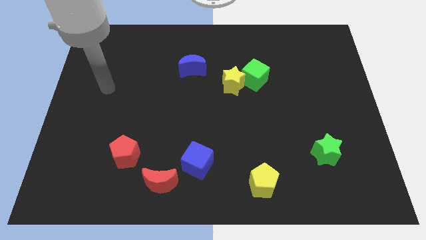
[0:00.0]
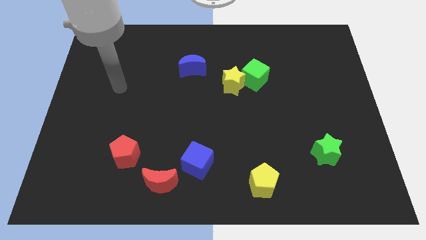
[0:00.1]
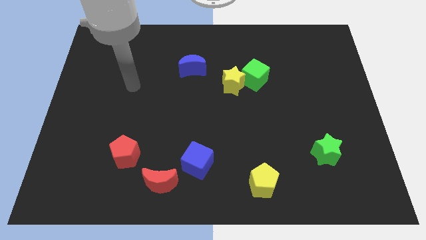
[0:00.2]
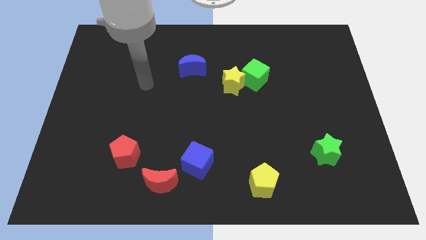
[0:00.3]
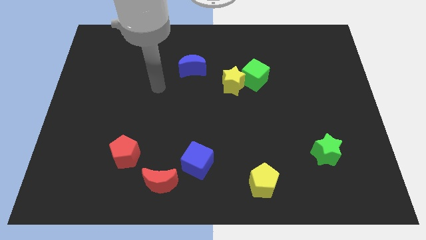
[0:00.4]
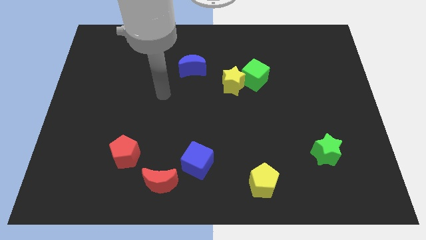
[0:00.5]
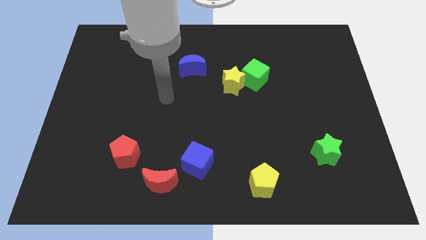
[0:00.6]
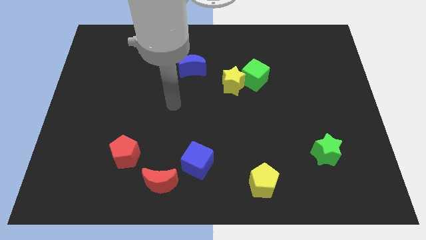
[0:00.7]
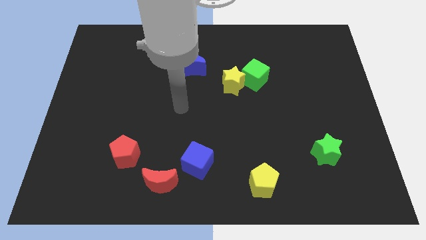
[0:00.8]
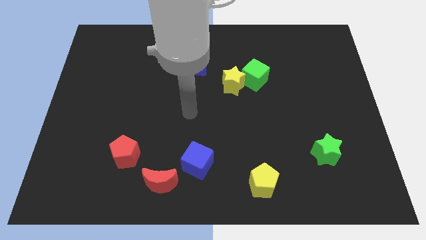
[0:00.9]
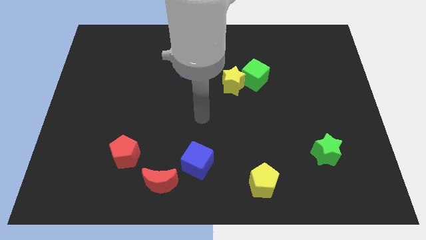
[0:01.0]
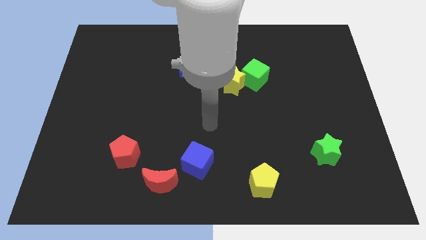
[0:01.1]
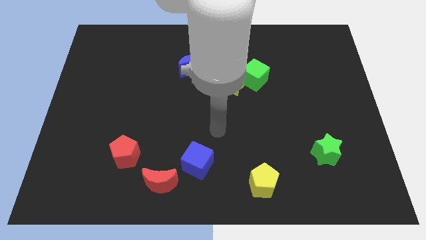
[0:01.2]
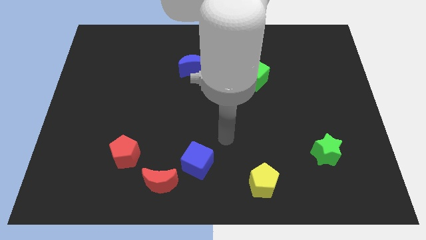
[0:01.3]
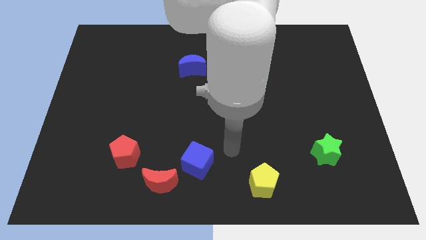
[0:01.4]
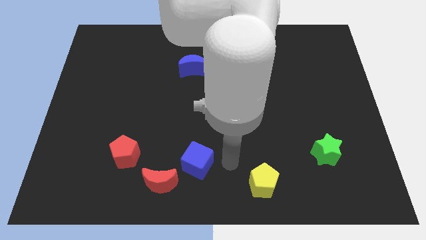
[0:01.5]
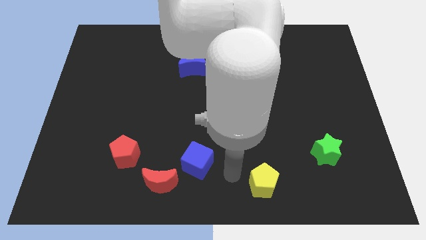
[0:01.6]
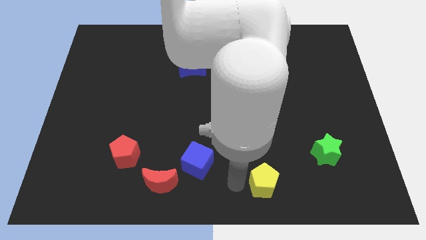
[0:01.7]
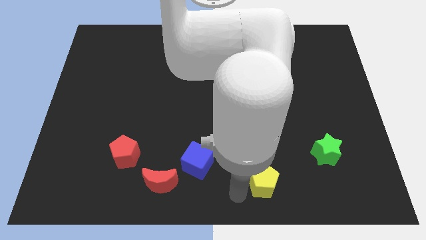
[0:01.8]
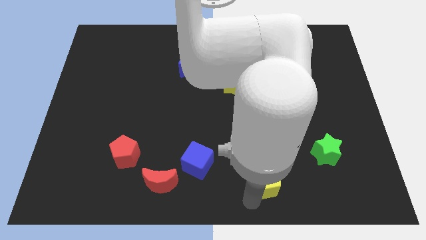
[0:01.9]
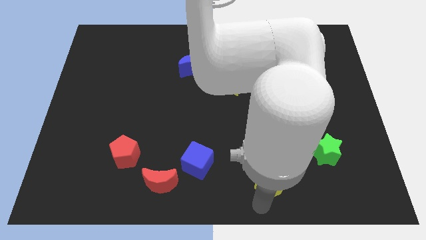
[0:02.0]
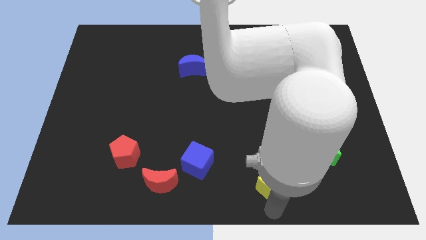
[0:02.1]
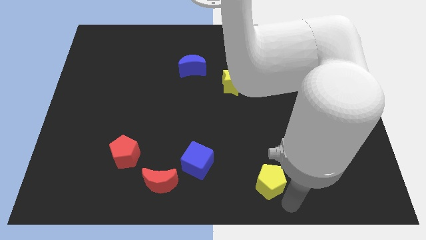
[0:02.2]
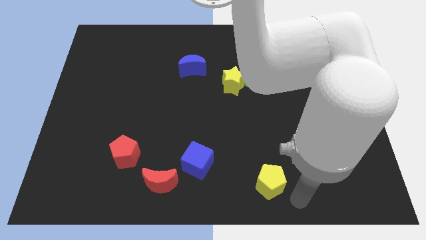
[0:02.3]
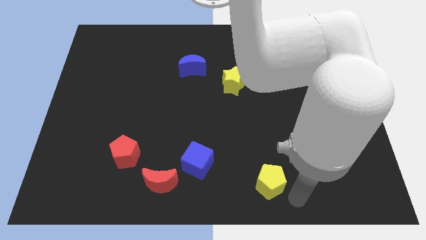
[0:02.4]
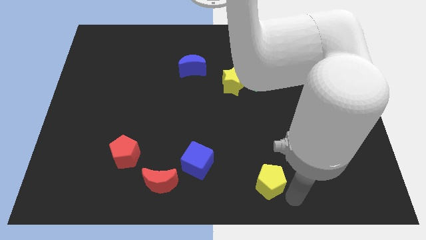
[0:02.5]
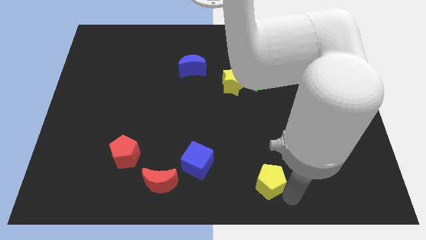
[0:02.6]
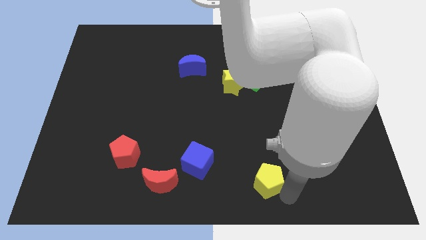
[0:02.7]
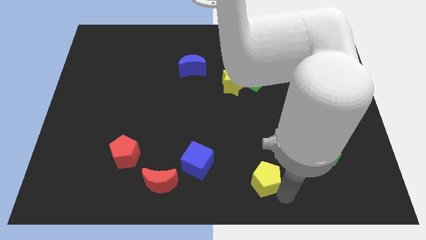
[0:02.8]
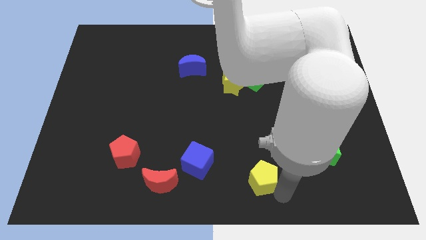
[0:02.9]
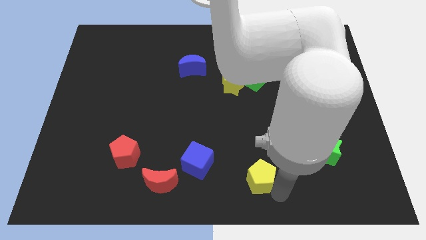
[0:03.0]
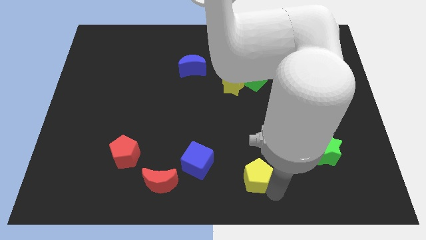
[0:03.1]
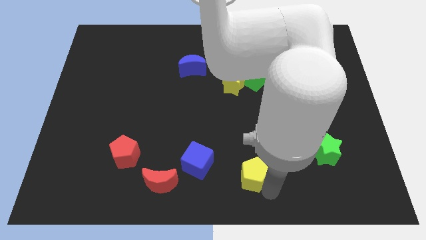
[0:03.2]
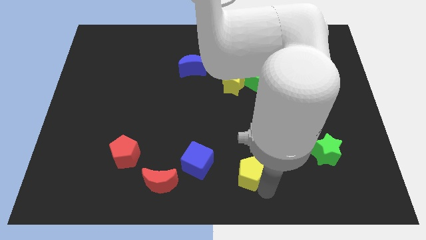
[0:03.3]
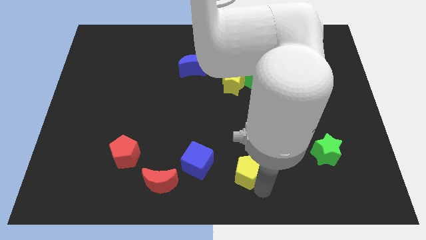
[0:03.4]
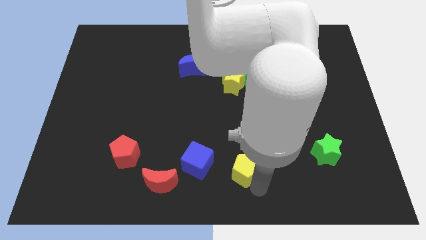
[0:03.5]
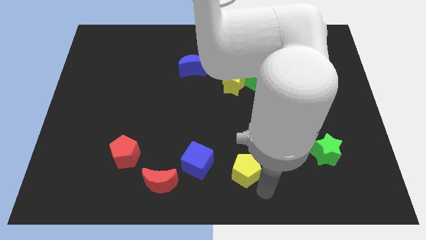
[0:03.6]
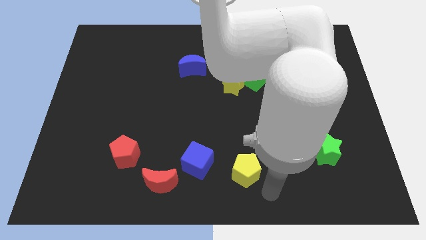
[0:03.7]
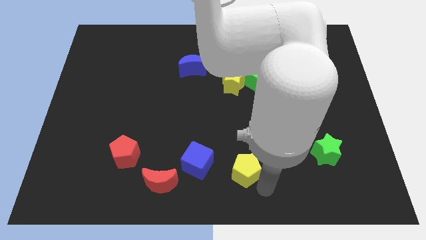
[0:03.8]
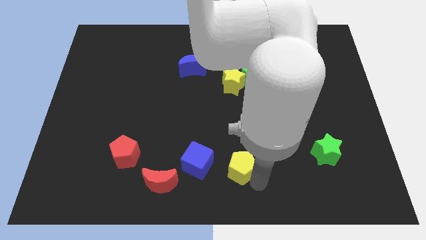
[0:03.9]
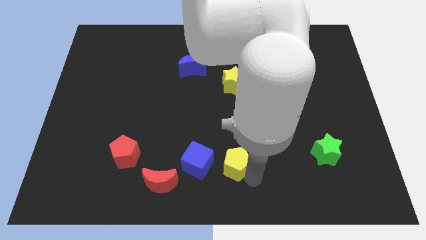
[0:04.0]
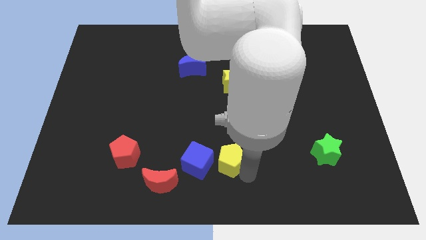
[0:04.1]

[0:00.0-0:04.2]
push the yellow pentagon a little up and to the left diagonally

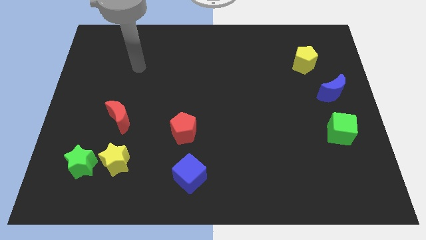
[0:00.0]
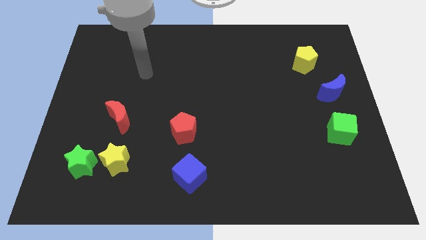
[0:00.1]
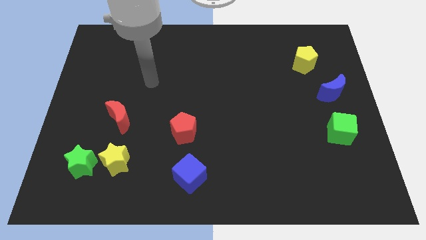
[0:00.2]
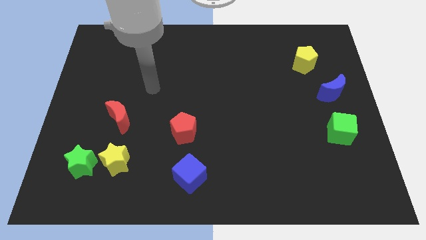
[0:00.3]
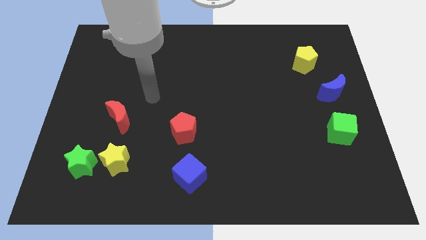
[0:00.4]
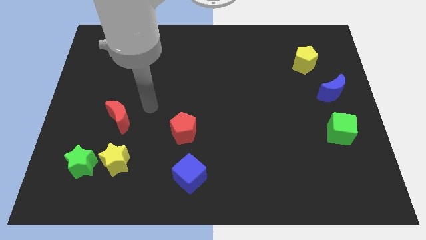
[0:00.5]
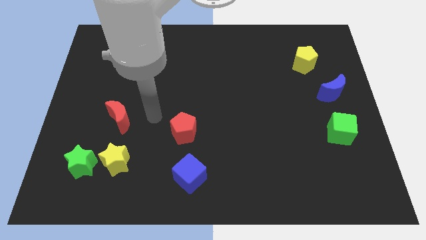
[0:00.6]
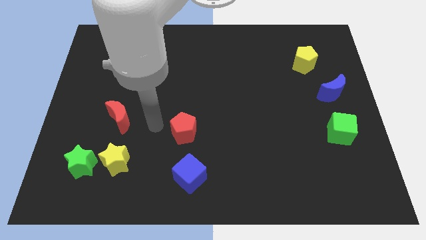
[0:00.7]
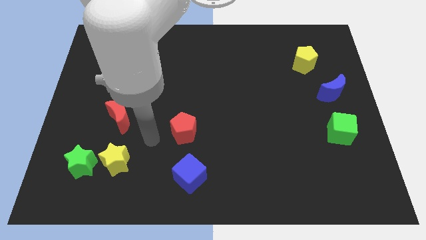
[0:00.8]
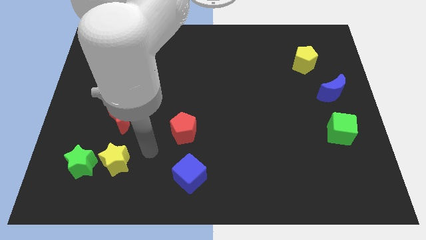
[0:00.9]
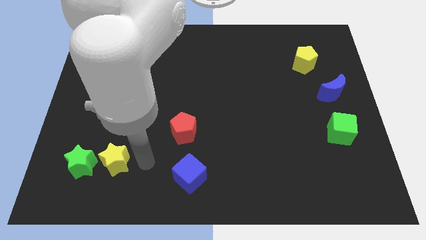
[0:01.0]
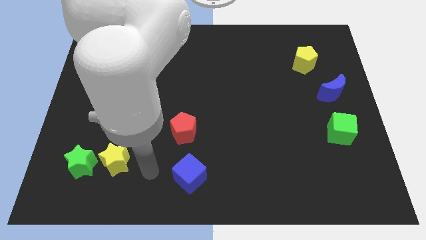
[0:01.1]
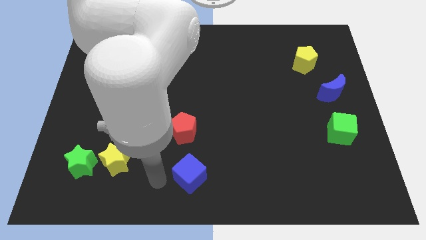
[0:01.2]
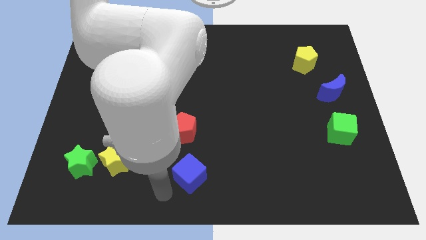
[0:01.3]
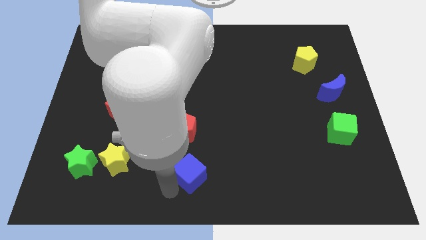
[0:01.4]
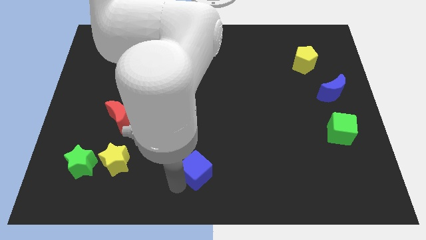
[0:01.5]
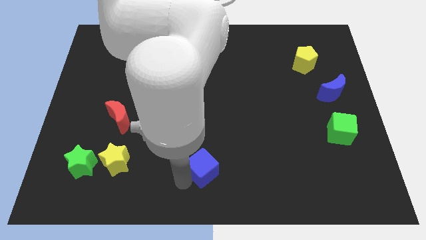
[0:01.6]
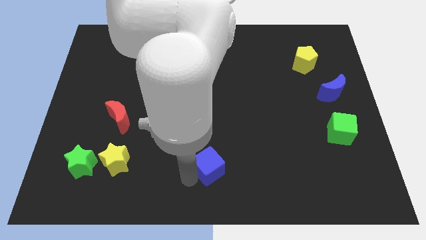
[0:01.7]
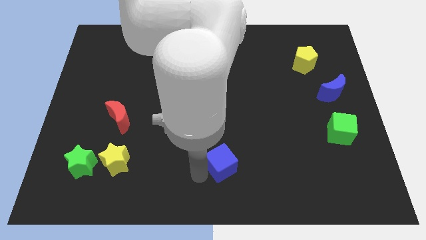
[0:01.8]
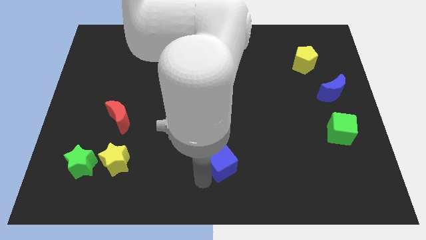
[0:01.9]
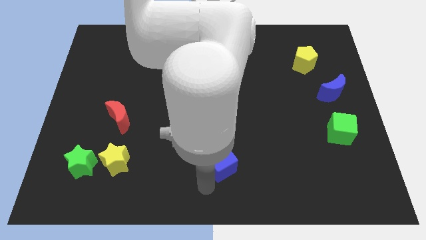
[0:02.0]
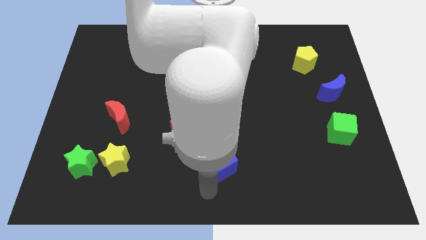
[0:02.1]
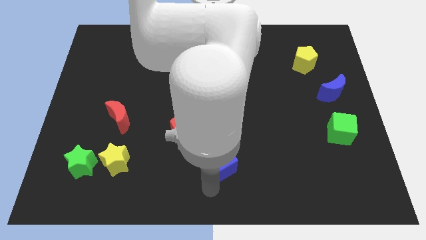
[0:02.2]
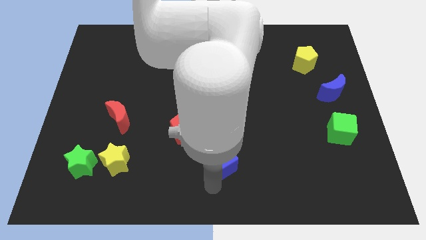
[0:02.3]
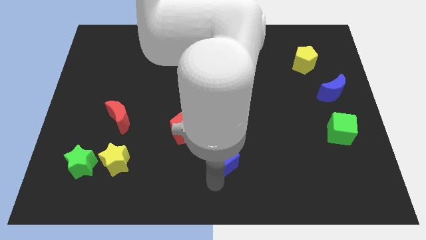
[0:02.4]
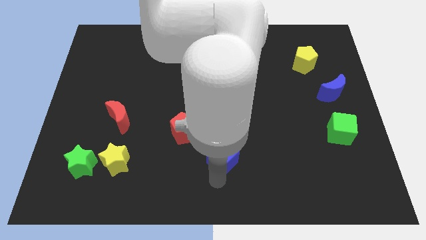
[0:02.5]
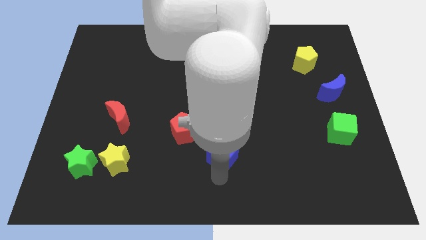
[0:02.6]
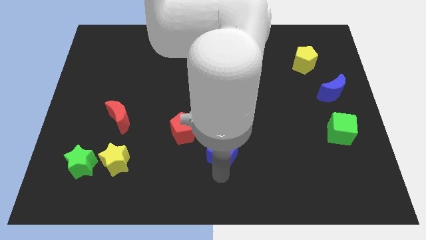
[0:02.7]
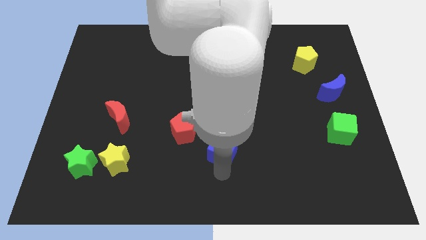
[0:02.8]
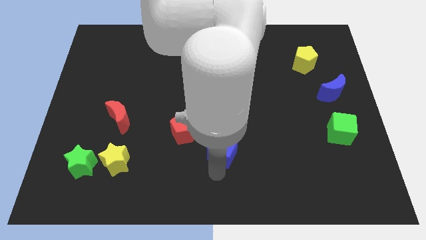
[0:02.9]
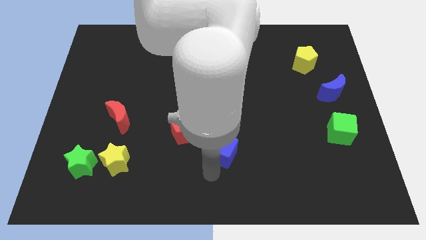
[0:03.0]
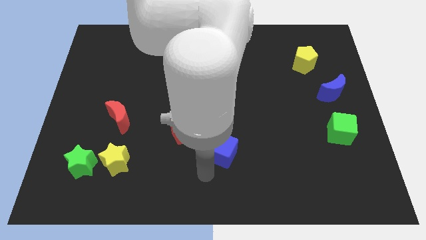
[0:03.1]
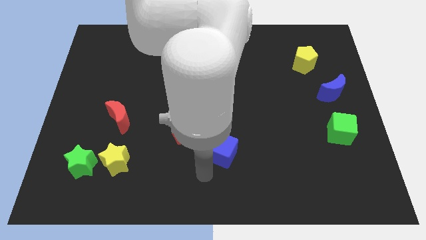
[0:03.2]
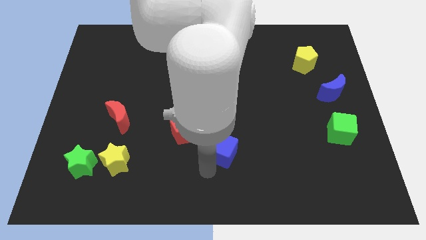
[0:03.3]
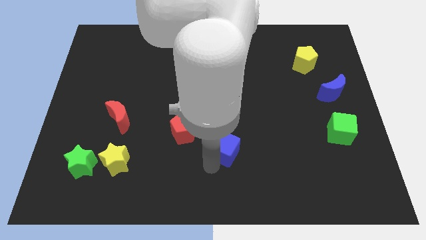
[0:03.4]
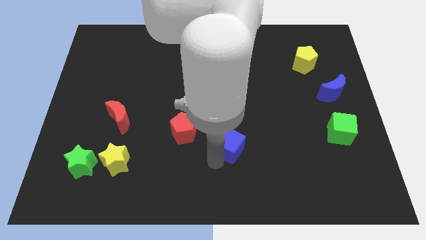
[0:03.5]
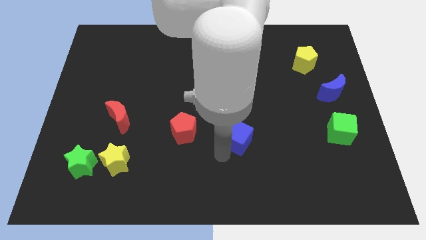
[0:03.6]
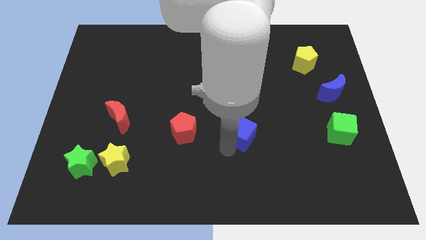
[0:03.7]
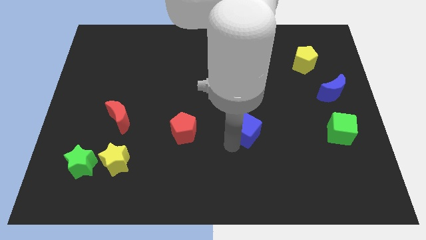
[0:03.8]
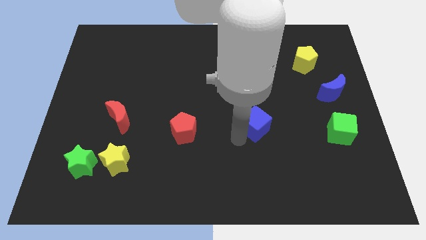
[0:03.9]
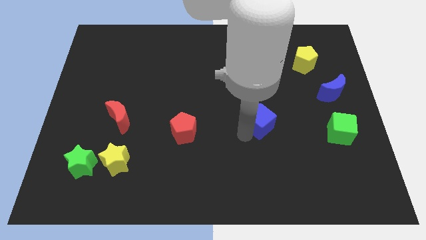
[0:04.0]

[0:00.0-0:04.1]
slide the blue cube upwards and to the right
